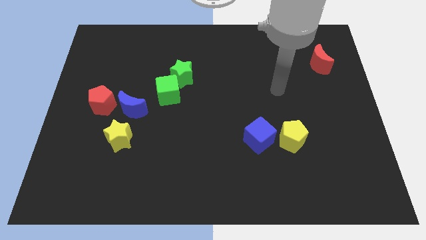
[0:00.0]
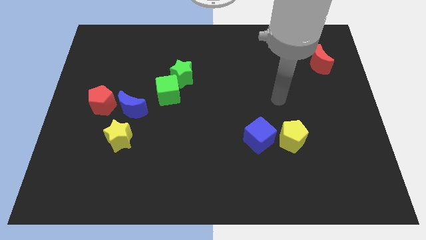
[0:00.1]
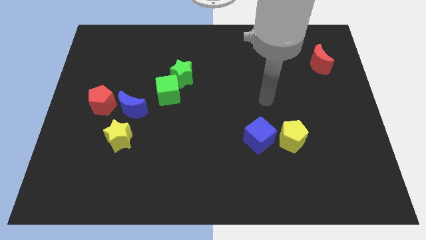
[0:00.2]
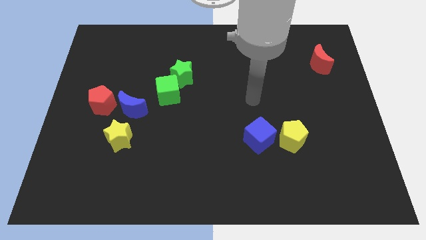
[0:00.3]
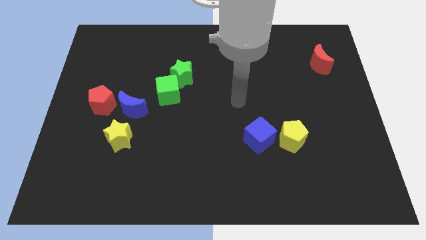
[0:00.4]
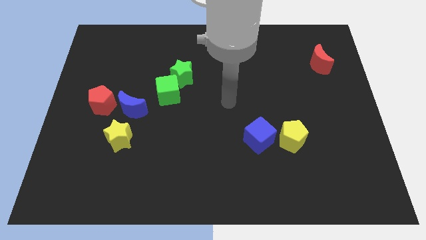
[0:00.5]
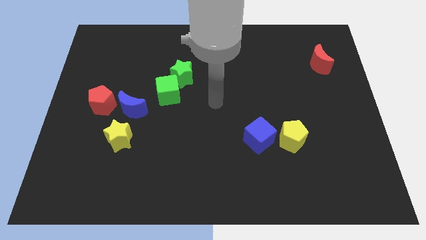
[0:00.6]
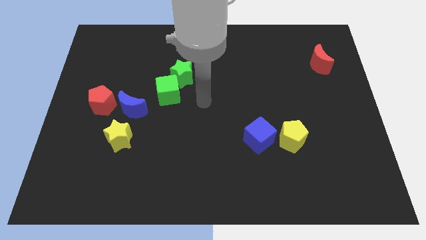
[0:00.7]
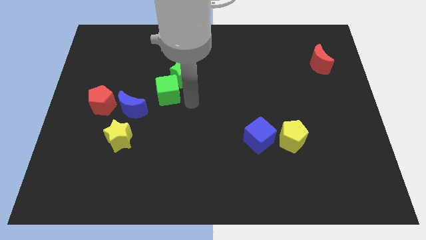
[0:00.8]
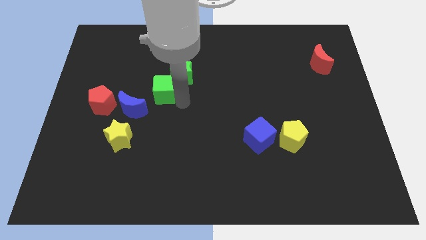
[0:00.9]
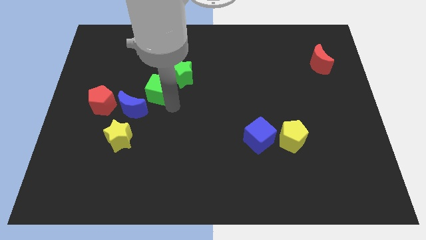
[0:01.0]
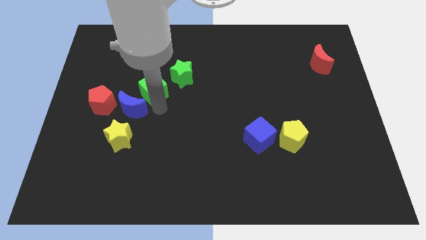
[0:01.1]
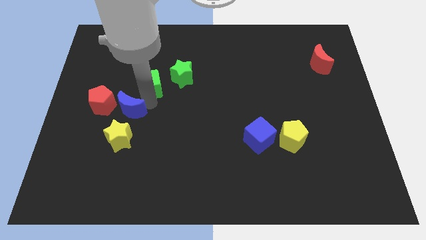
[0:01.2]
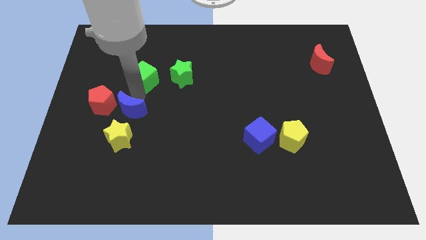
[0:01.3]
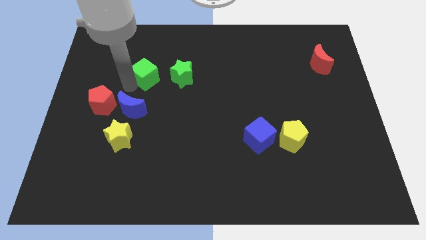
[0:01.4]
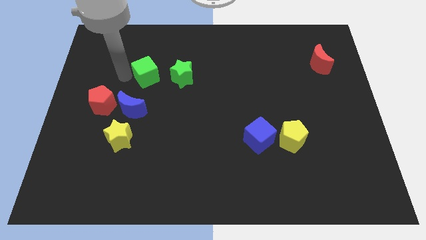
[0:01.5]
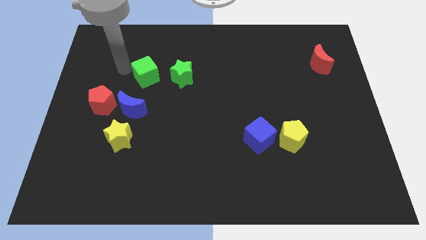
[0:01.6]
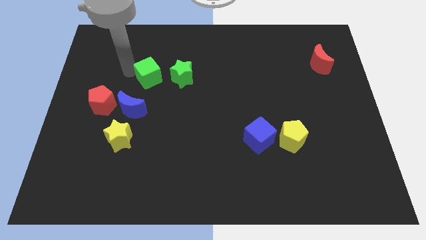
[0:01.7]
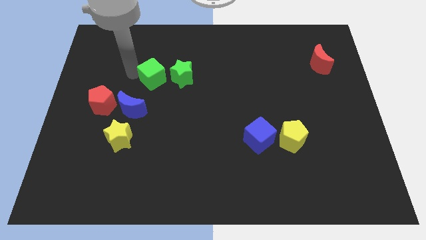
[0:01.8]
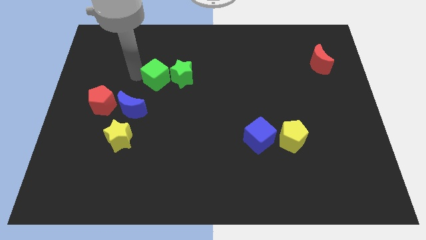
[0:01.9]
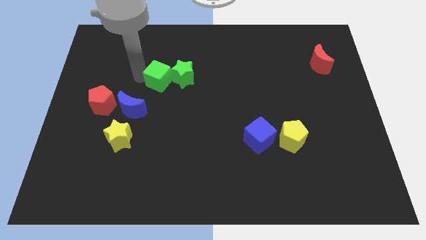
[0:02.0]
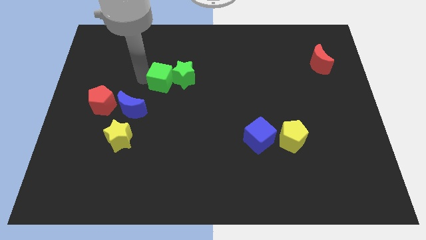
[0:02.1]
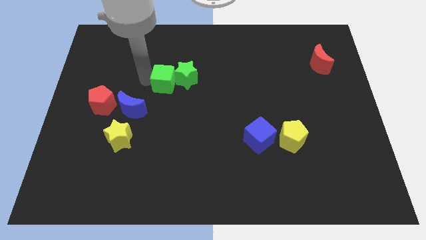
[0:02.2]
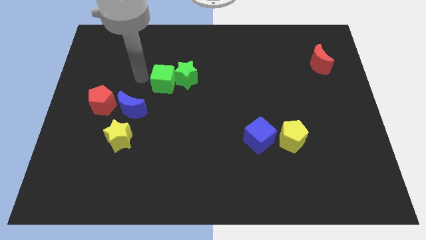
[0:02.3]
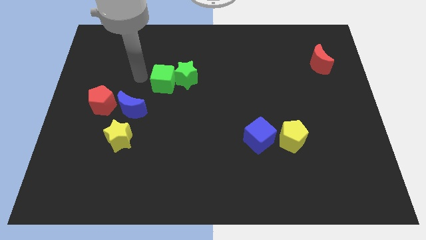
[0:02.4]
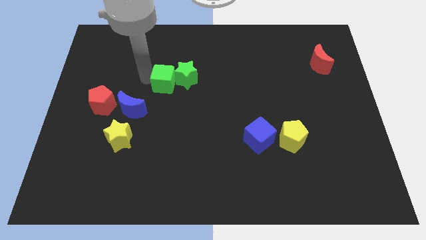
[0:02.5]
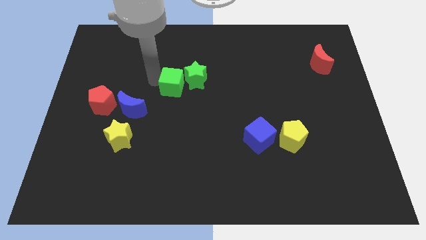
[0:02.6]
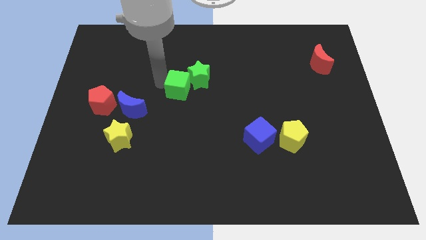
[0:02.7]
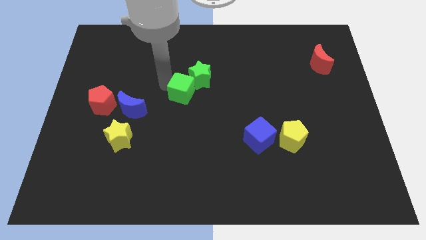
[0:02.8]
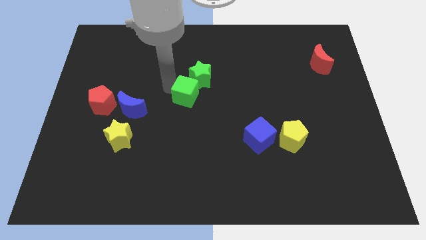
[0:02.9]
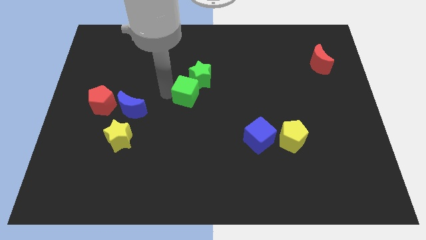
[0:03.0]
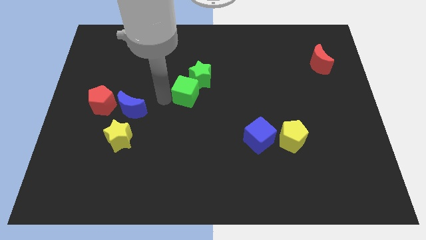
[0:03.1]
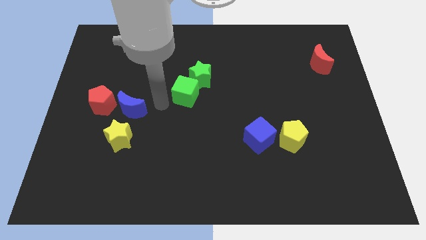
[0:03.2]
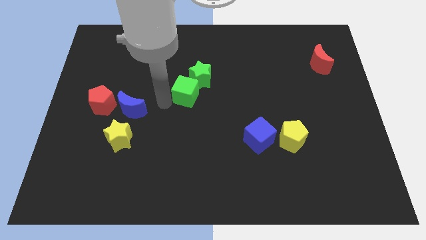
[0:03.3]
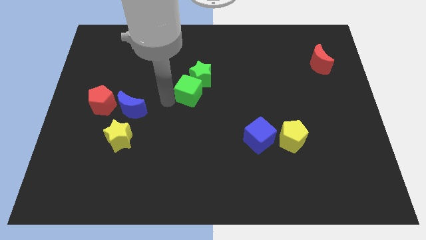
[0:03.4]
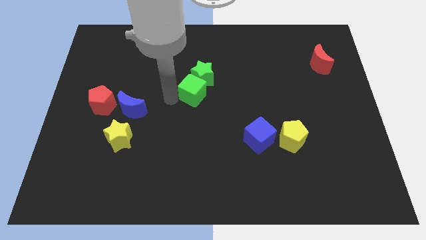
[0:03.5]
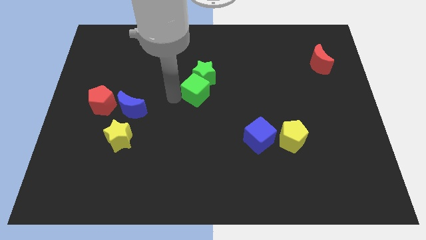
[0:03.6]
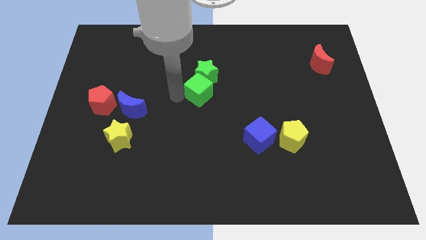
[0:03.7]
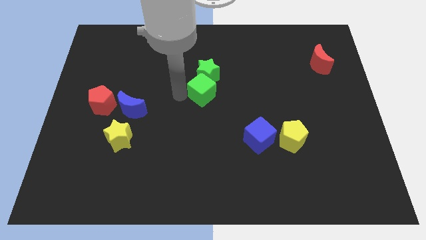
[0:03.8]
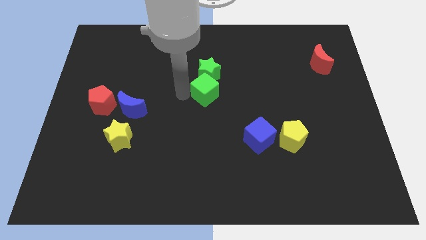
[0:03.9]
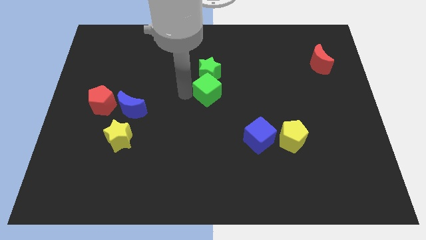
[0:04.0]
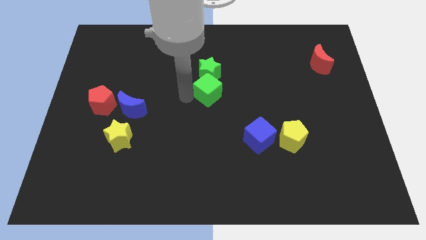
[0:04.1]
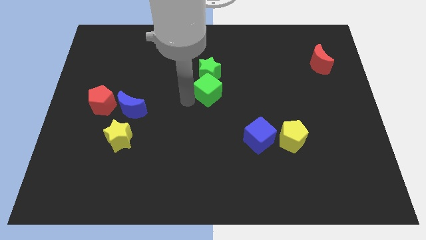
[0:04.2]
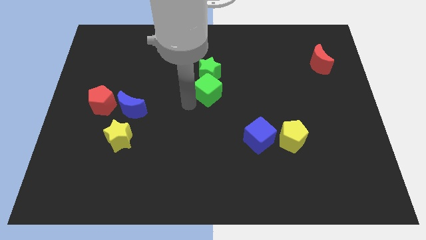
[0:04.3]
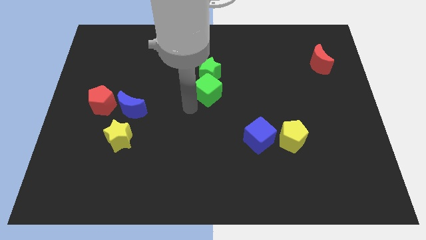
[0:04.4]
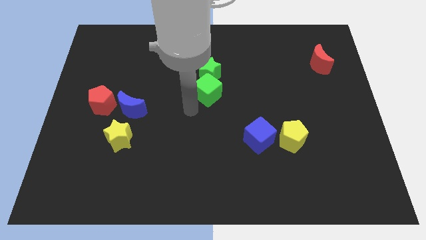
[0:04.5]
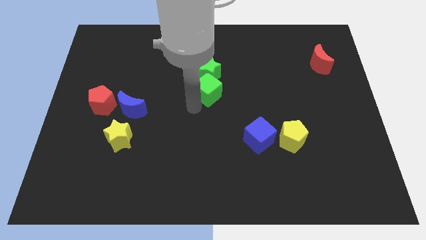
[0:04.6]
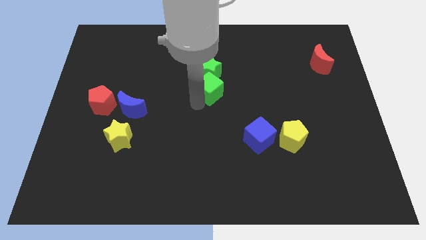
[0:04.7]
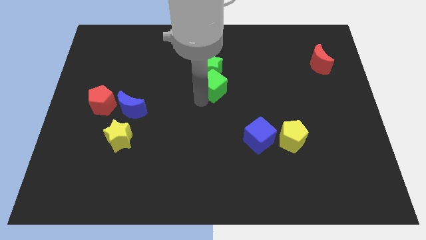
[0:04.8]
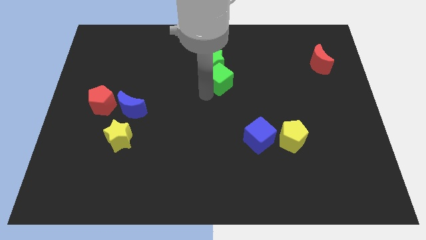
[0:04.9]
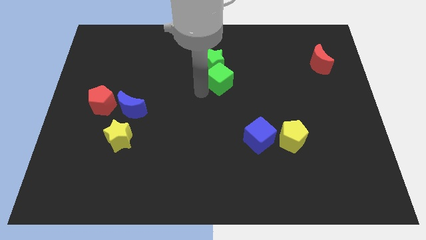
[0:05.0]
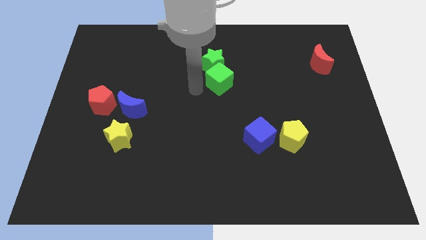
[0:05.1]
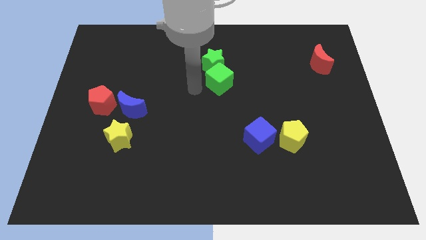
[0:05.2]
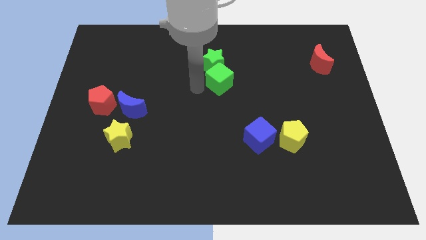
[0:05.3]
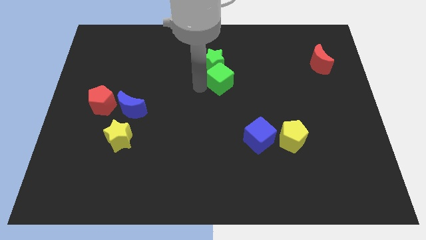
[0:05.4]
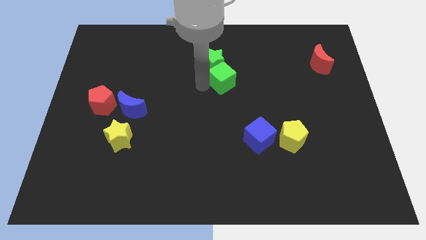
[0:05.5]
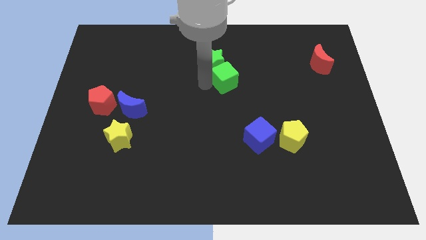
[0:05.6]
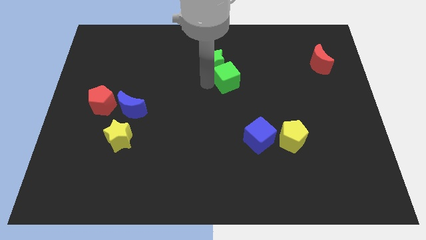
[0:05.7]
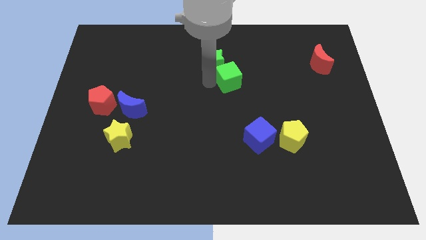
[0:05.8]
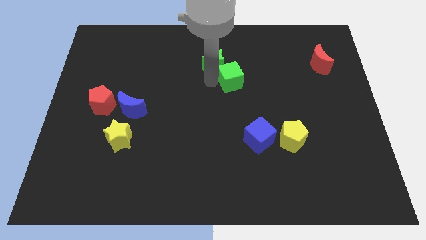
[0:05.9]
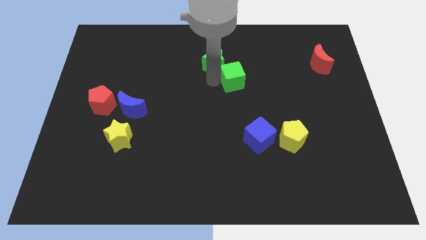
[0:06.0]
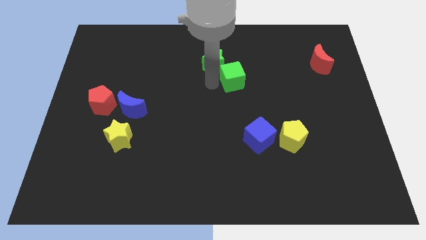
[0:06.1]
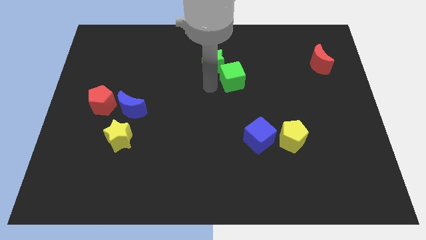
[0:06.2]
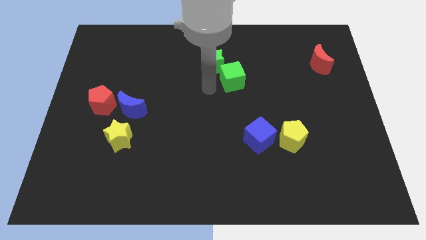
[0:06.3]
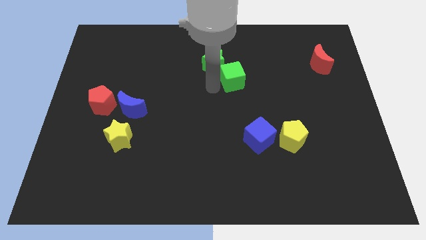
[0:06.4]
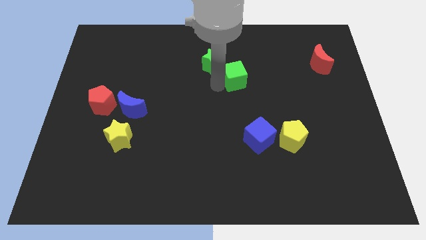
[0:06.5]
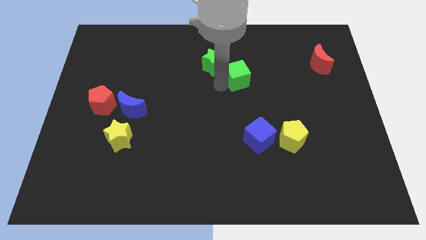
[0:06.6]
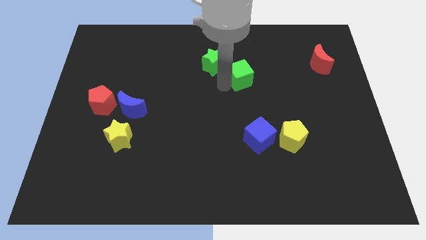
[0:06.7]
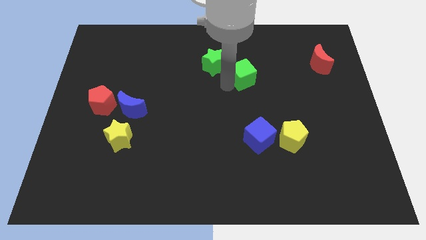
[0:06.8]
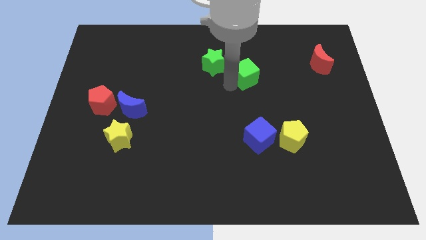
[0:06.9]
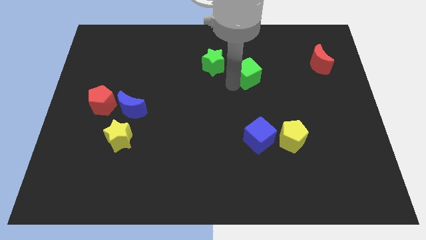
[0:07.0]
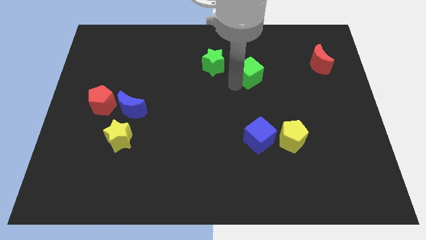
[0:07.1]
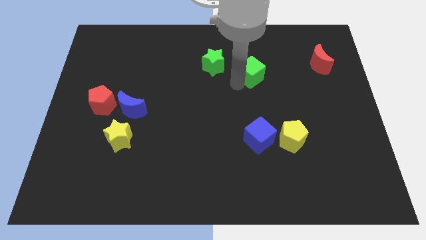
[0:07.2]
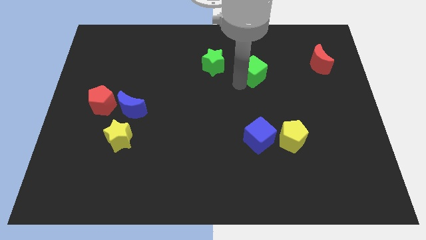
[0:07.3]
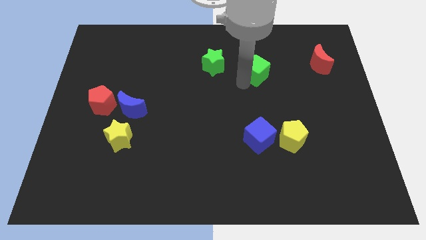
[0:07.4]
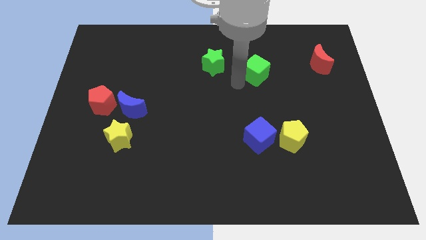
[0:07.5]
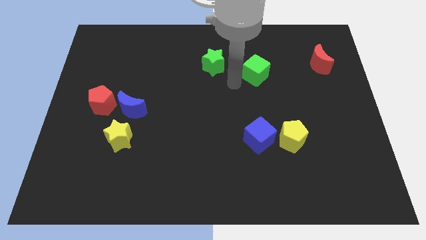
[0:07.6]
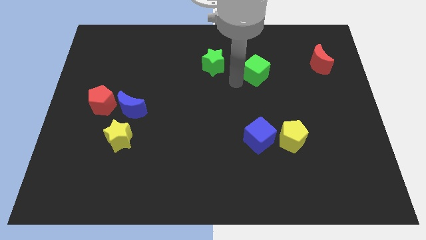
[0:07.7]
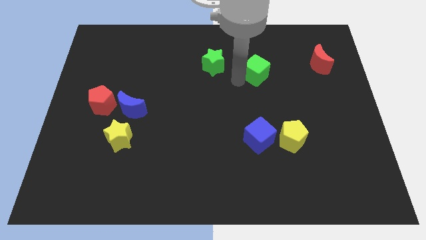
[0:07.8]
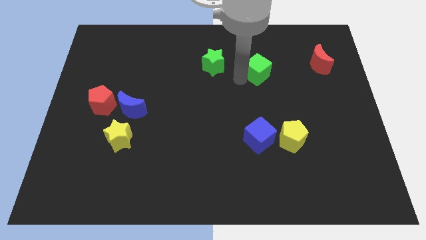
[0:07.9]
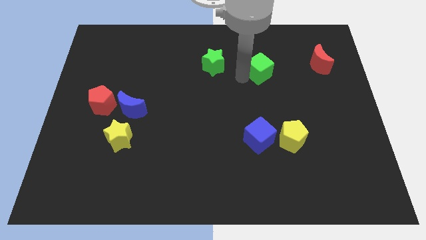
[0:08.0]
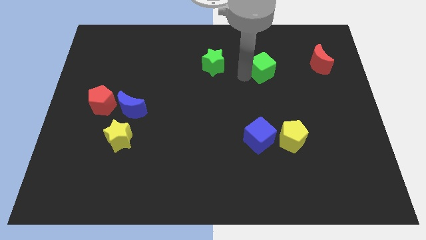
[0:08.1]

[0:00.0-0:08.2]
slide the green cube to the left side of the red moon
